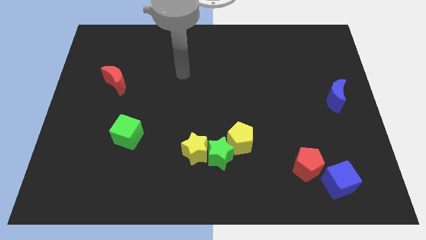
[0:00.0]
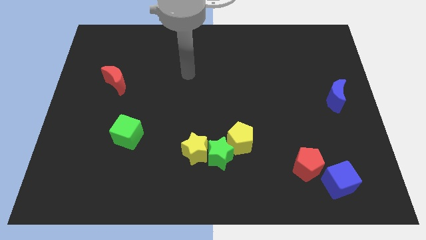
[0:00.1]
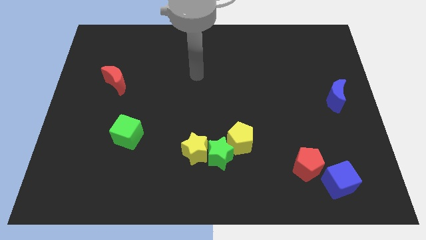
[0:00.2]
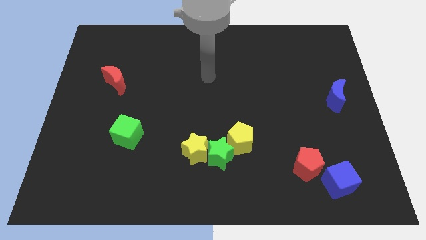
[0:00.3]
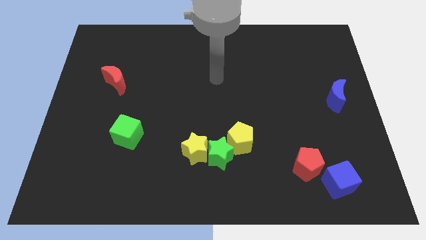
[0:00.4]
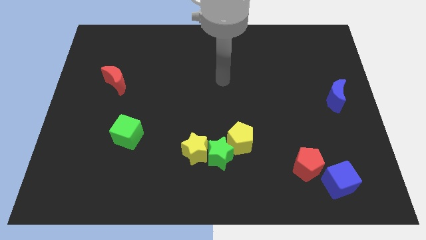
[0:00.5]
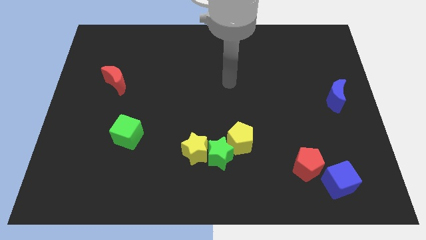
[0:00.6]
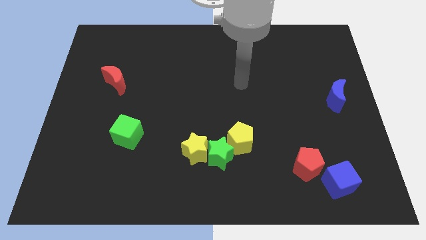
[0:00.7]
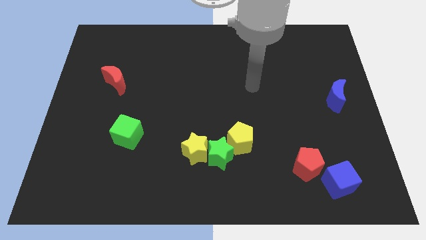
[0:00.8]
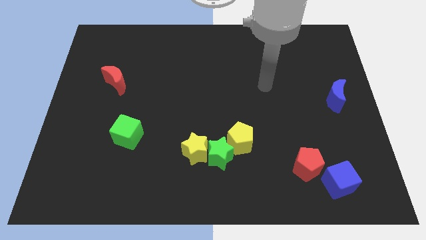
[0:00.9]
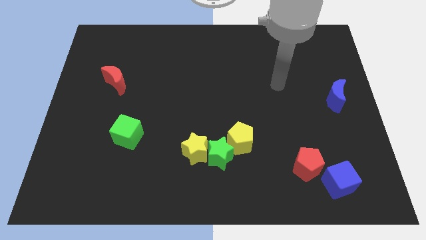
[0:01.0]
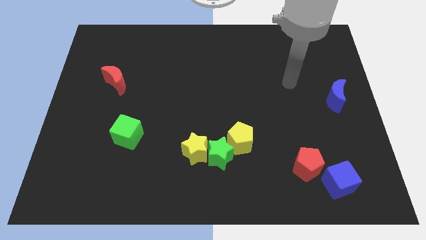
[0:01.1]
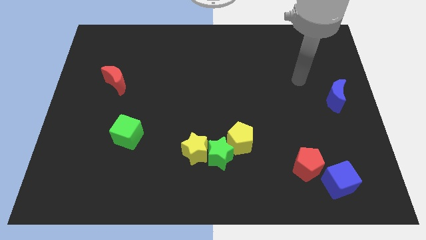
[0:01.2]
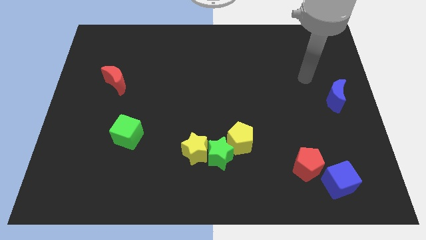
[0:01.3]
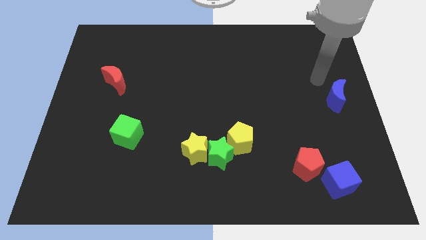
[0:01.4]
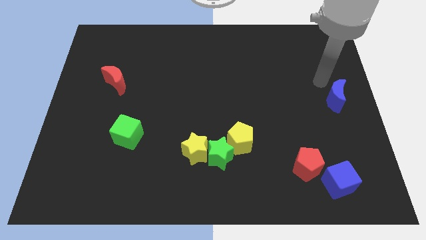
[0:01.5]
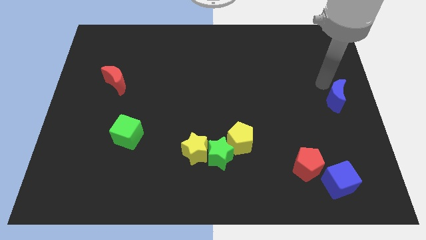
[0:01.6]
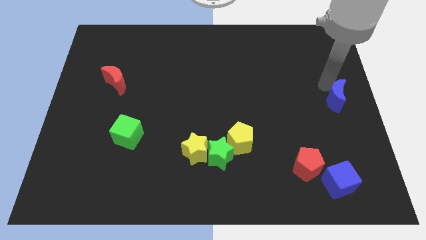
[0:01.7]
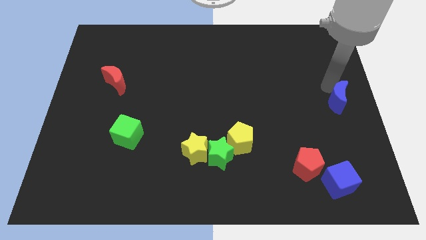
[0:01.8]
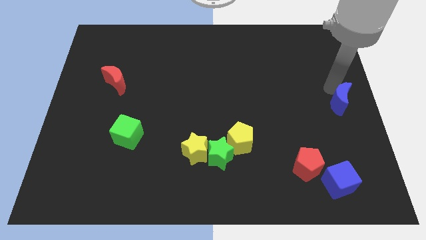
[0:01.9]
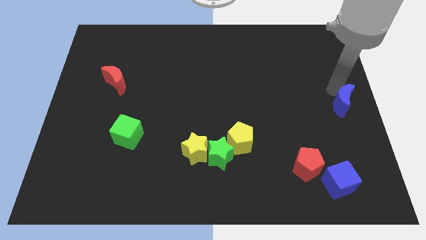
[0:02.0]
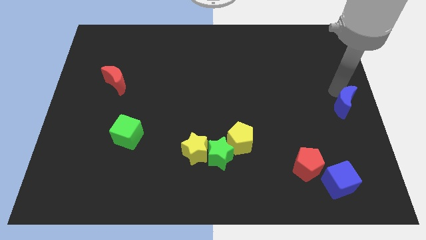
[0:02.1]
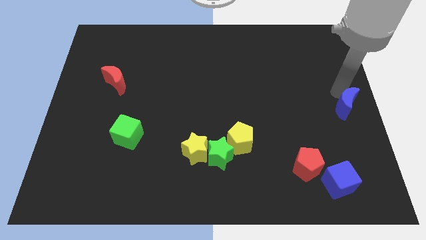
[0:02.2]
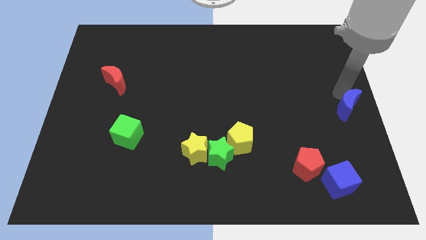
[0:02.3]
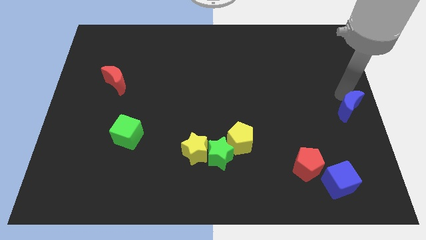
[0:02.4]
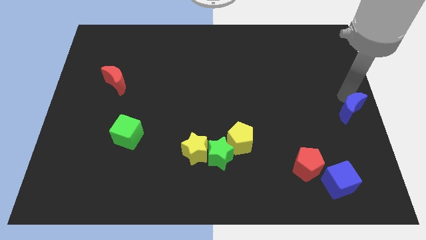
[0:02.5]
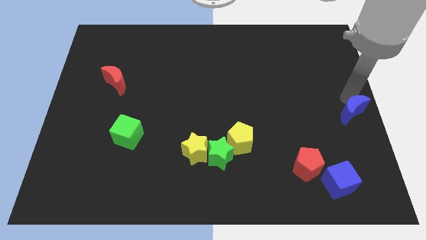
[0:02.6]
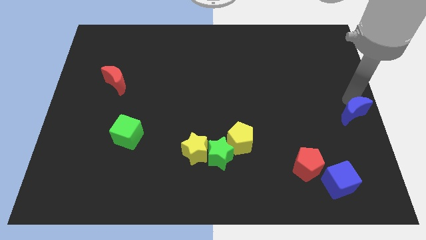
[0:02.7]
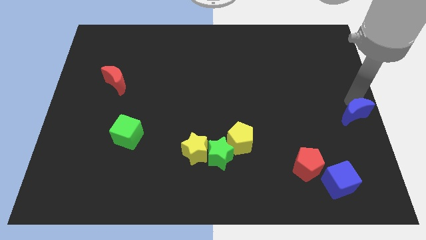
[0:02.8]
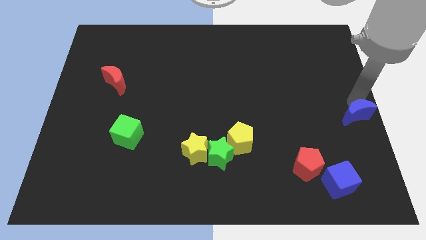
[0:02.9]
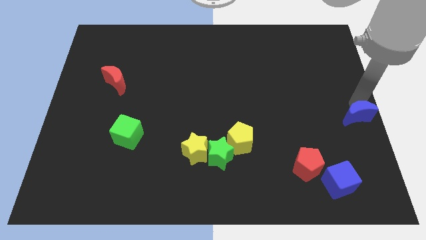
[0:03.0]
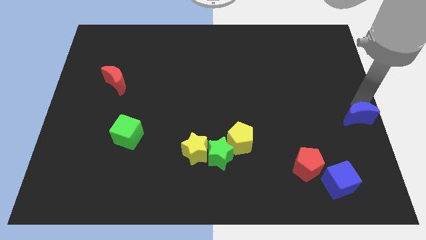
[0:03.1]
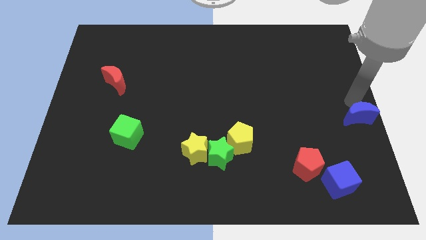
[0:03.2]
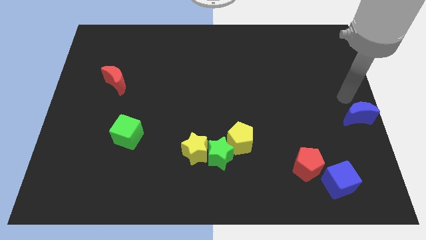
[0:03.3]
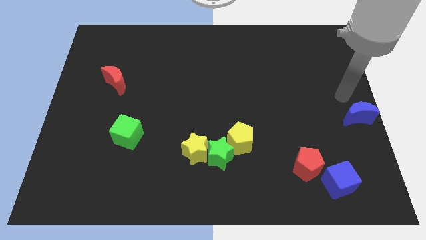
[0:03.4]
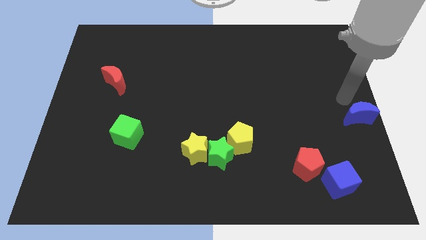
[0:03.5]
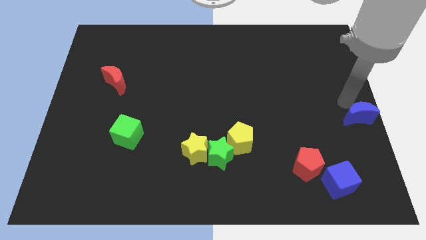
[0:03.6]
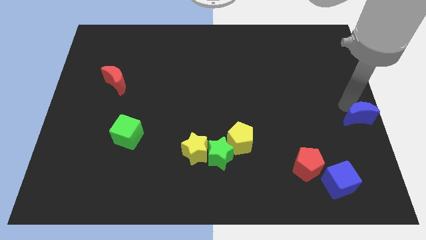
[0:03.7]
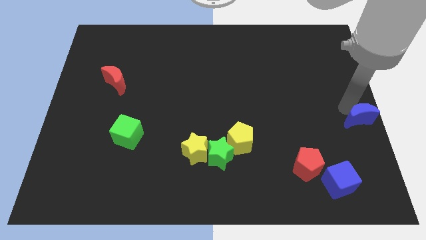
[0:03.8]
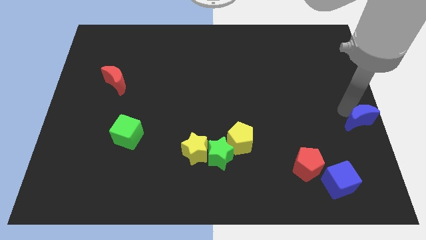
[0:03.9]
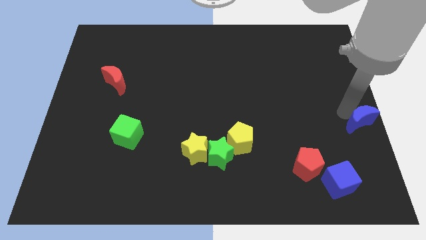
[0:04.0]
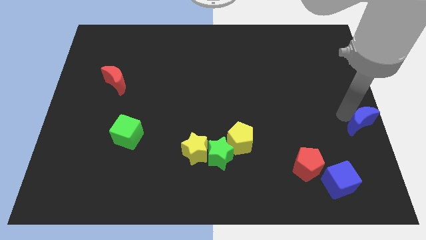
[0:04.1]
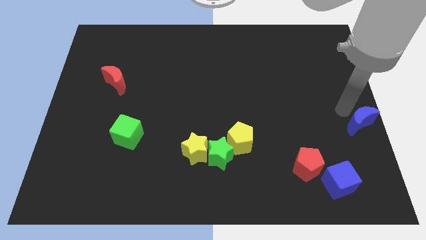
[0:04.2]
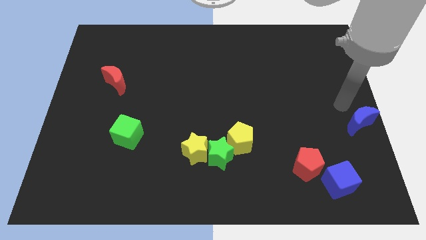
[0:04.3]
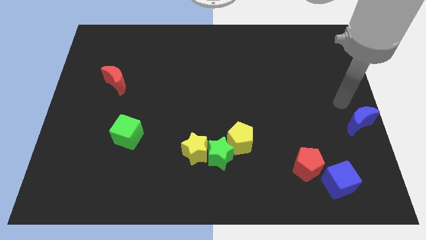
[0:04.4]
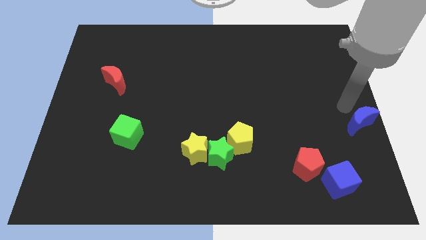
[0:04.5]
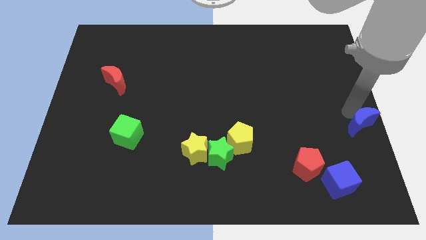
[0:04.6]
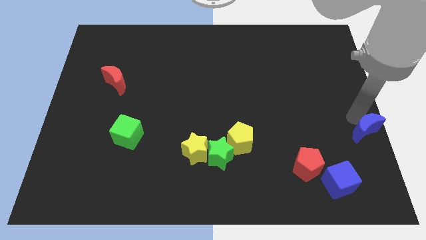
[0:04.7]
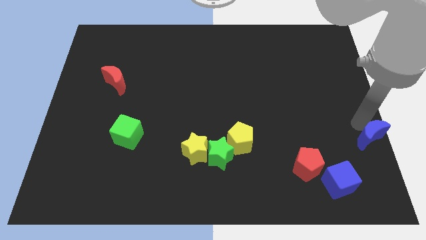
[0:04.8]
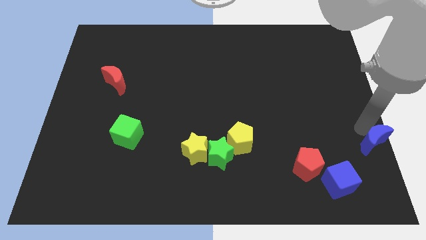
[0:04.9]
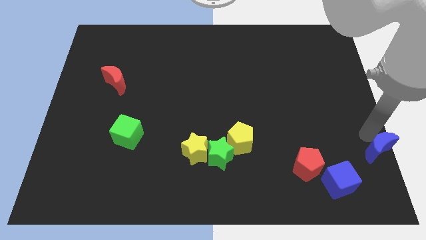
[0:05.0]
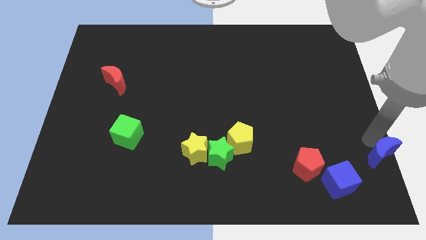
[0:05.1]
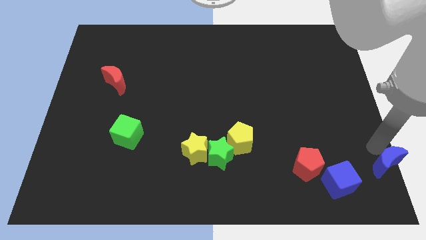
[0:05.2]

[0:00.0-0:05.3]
move the blue moon to the bottom right corner

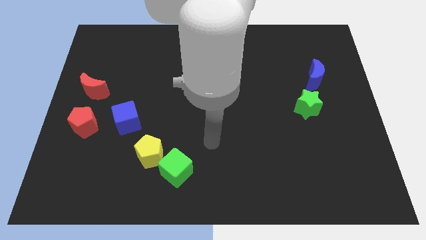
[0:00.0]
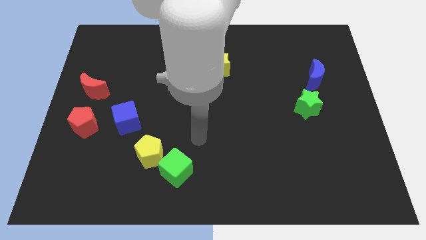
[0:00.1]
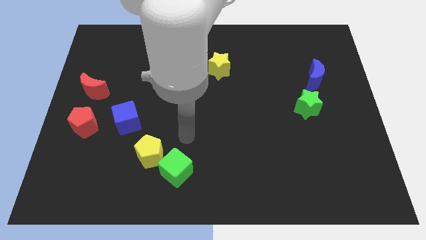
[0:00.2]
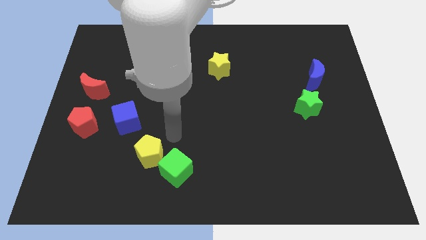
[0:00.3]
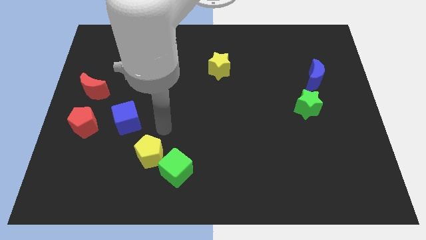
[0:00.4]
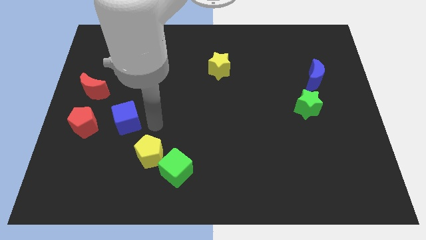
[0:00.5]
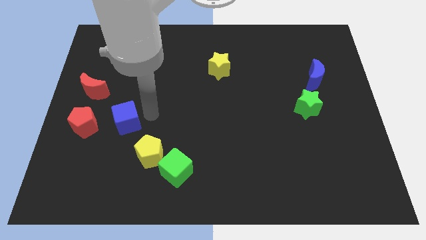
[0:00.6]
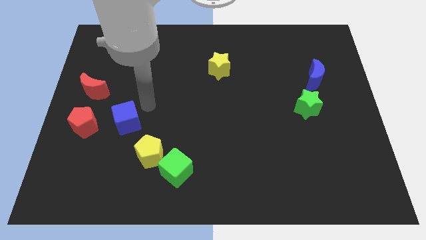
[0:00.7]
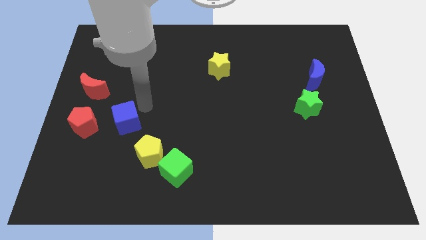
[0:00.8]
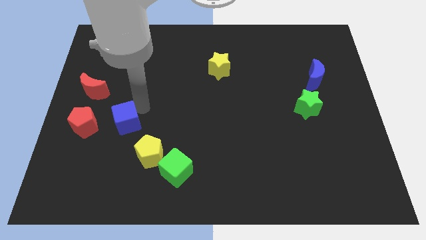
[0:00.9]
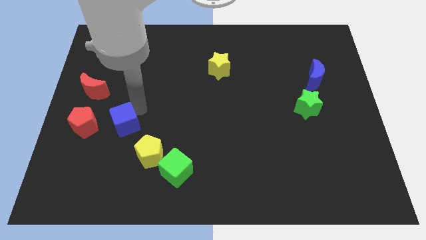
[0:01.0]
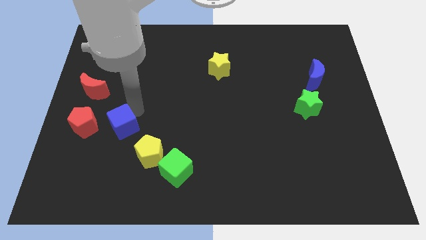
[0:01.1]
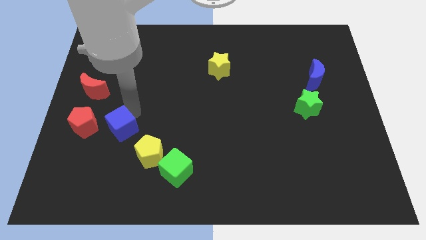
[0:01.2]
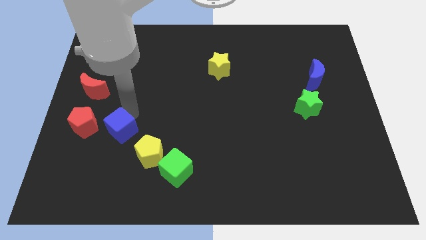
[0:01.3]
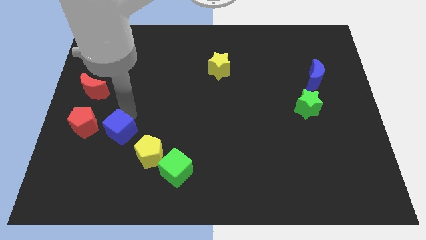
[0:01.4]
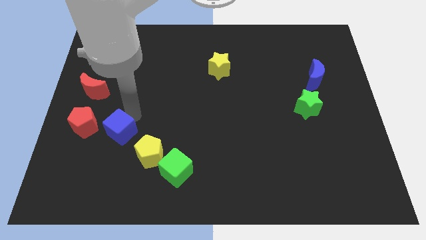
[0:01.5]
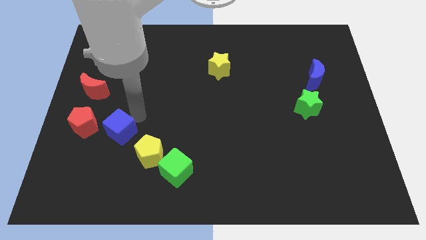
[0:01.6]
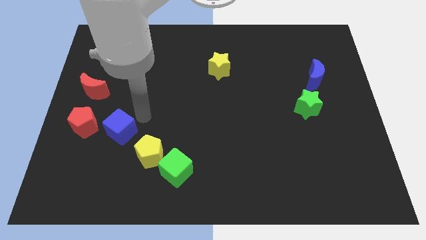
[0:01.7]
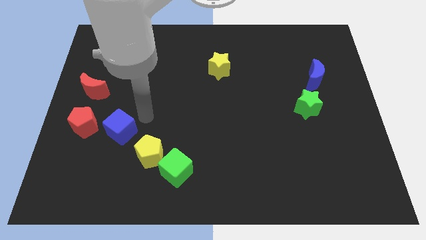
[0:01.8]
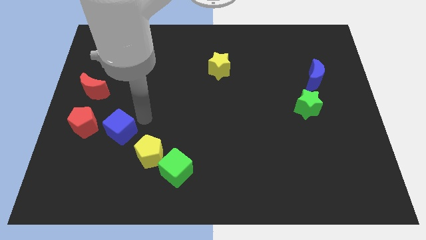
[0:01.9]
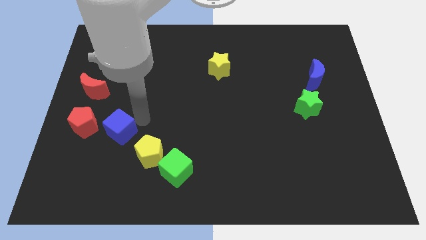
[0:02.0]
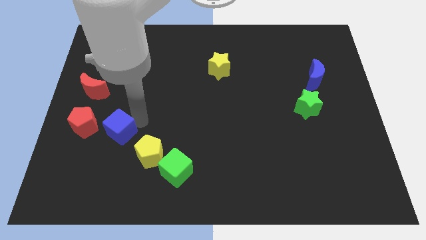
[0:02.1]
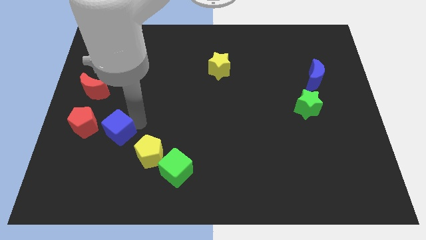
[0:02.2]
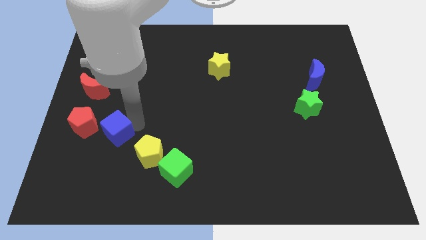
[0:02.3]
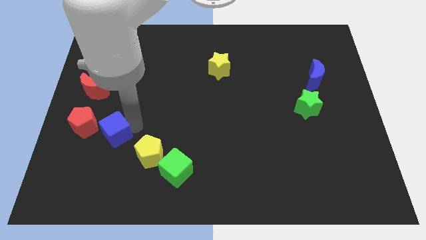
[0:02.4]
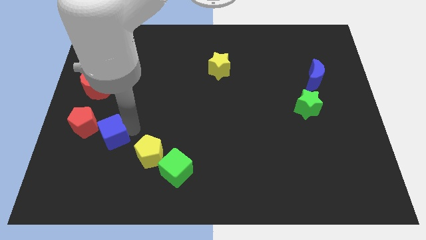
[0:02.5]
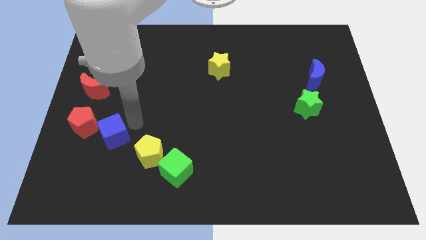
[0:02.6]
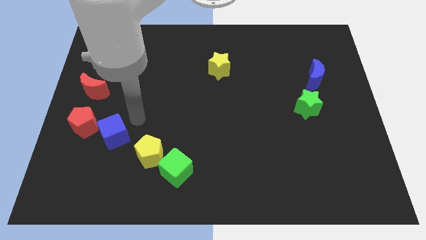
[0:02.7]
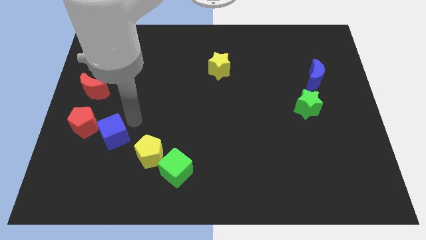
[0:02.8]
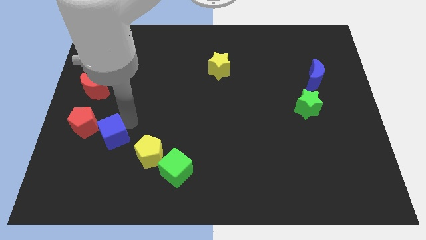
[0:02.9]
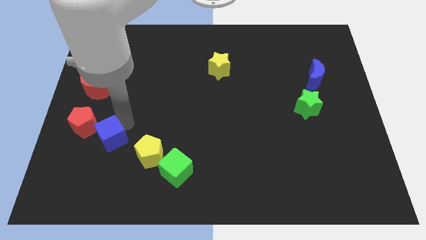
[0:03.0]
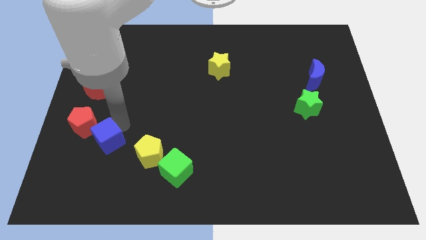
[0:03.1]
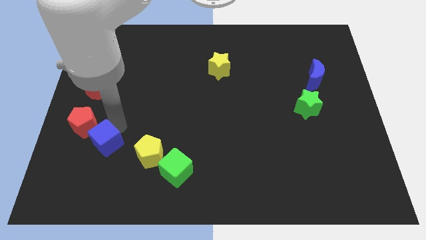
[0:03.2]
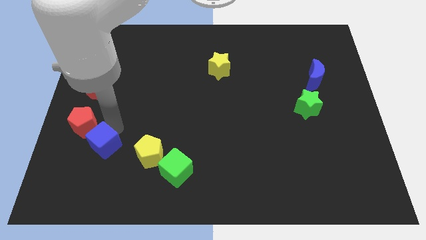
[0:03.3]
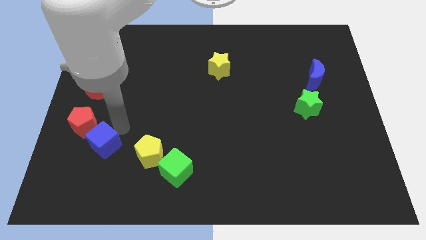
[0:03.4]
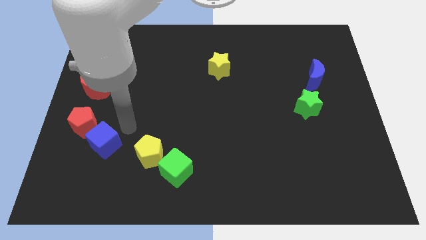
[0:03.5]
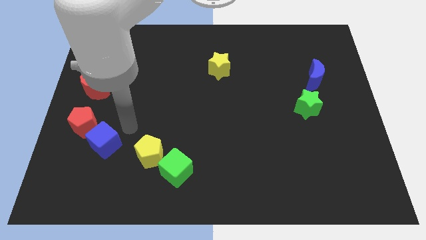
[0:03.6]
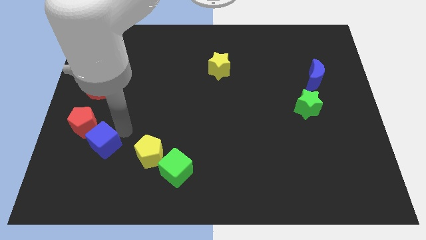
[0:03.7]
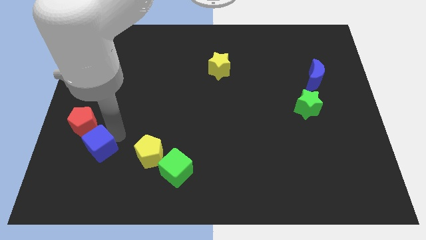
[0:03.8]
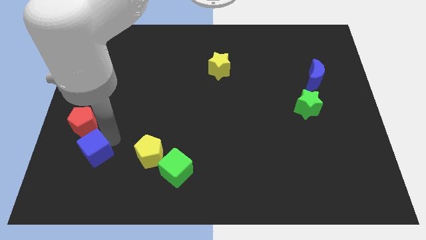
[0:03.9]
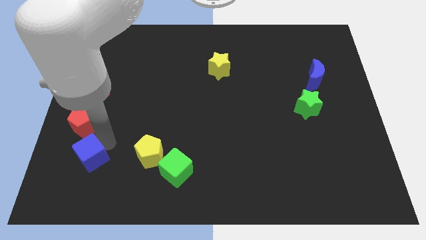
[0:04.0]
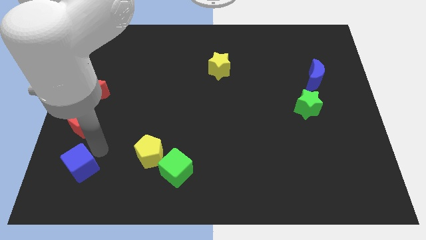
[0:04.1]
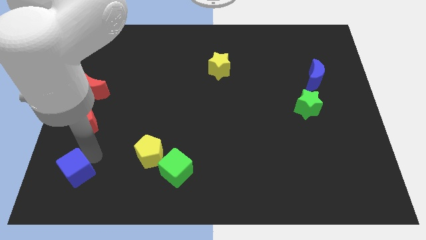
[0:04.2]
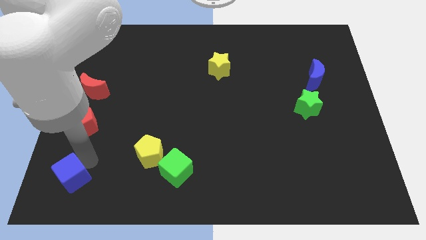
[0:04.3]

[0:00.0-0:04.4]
push the blue cube to the lower left corner
